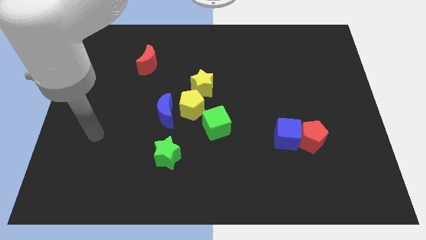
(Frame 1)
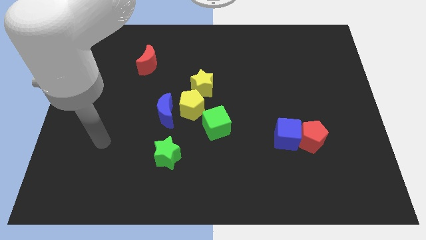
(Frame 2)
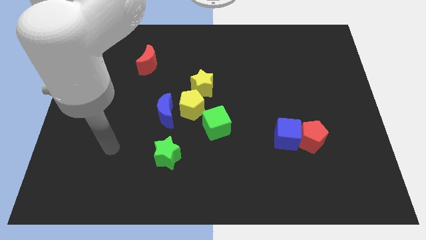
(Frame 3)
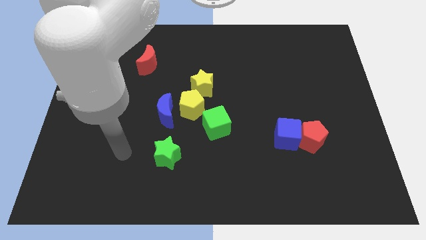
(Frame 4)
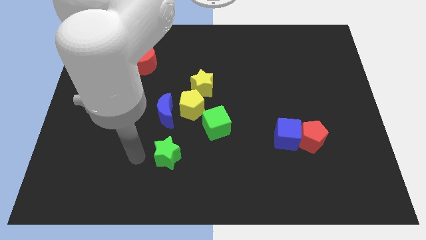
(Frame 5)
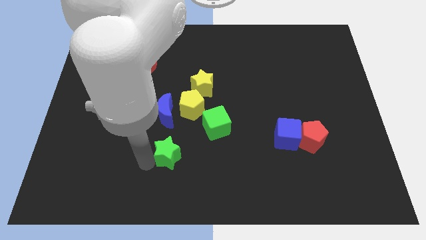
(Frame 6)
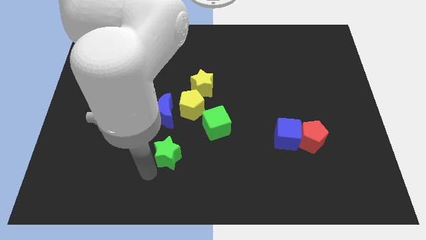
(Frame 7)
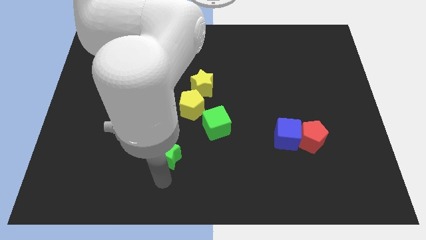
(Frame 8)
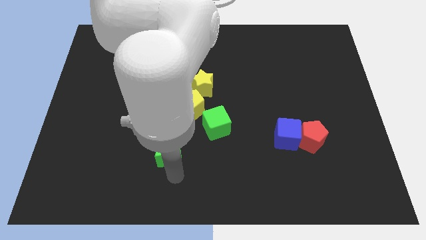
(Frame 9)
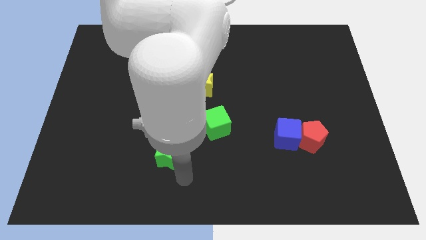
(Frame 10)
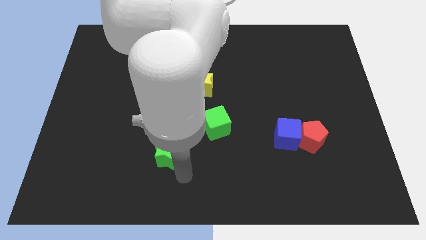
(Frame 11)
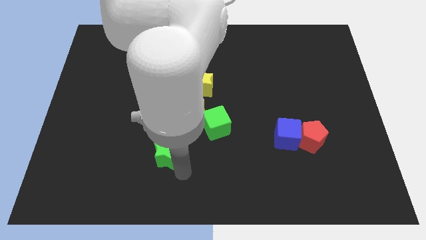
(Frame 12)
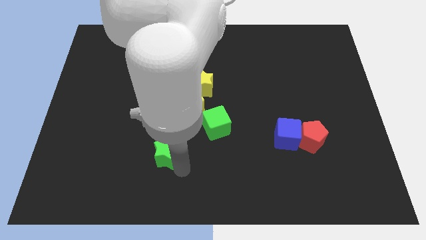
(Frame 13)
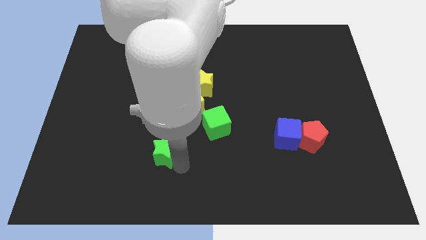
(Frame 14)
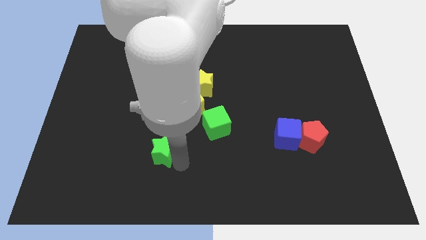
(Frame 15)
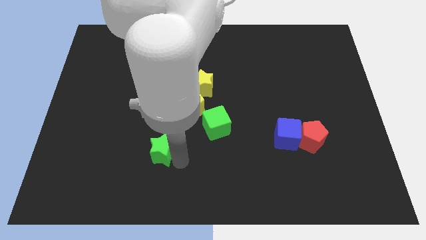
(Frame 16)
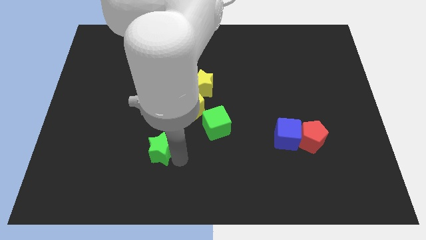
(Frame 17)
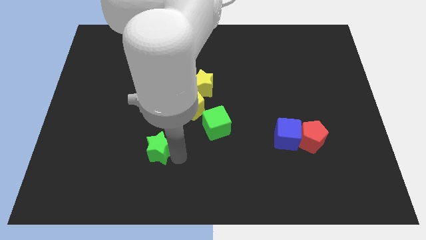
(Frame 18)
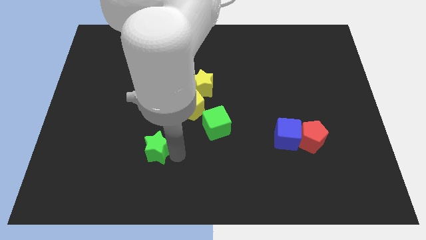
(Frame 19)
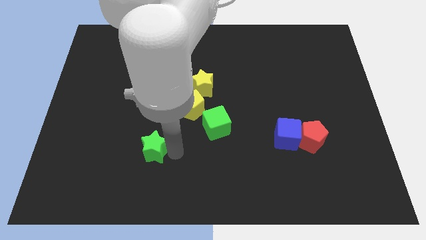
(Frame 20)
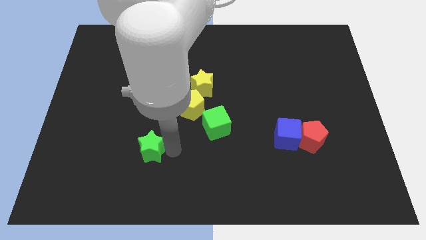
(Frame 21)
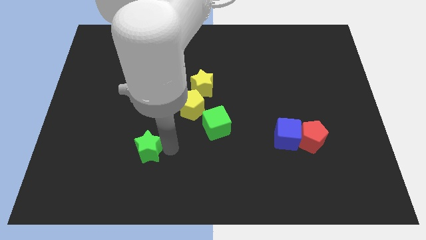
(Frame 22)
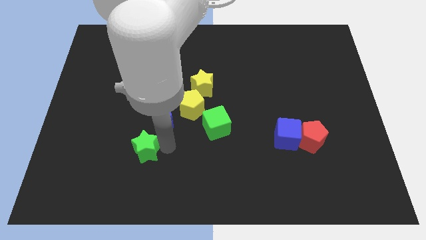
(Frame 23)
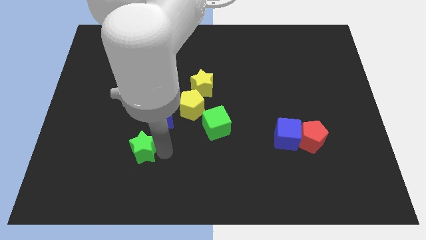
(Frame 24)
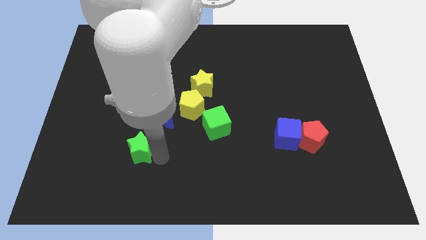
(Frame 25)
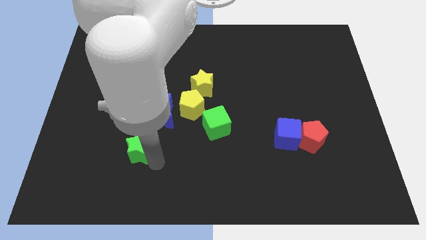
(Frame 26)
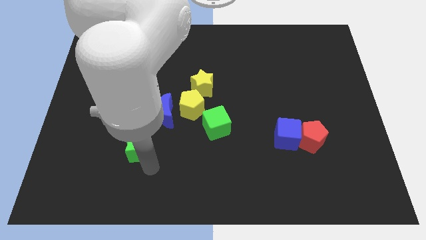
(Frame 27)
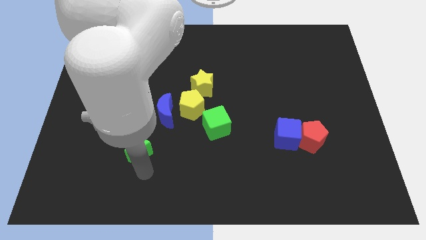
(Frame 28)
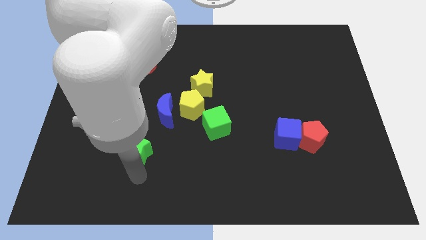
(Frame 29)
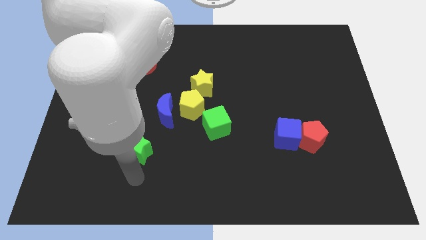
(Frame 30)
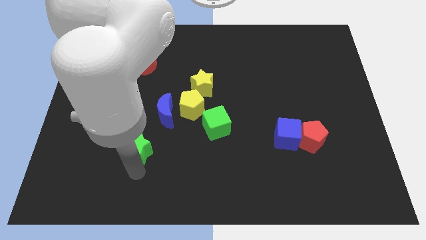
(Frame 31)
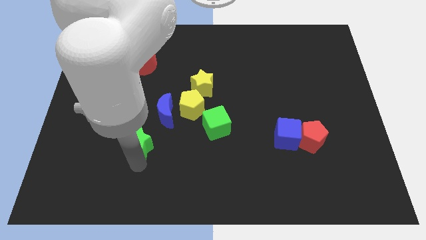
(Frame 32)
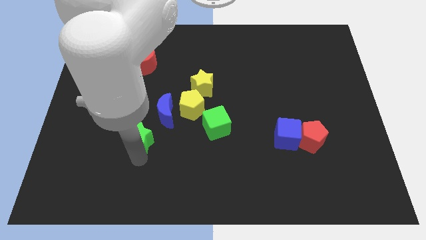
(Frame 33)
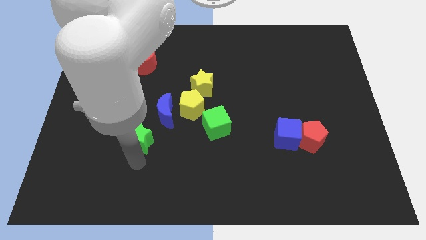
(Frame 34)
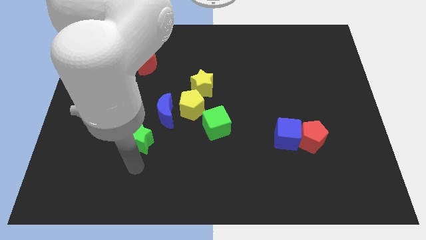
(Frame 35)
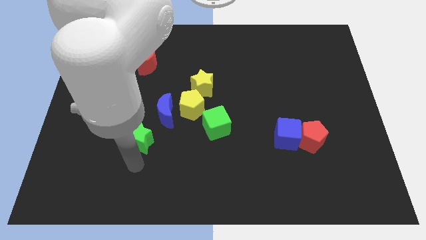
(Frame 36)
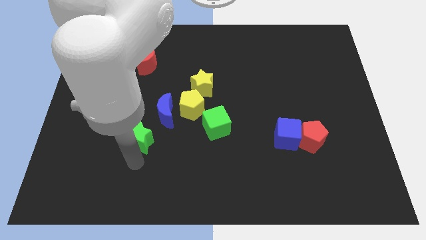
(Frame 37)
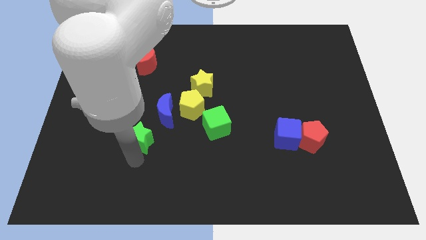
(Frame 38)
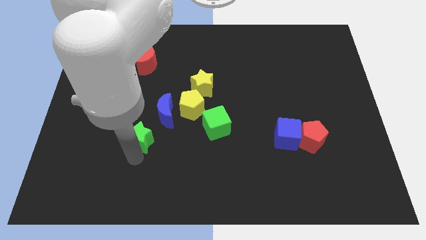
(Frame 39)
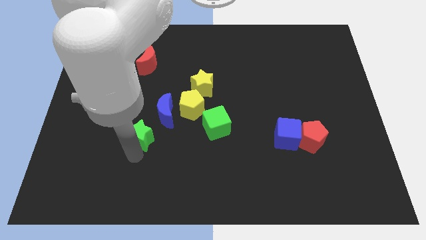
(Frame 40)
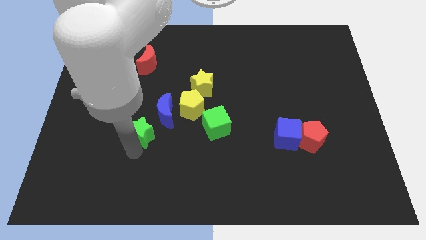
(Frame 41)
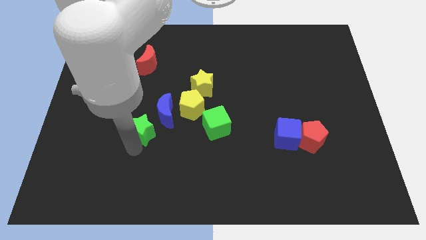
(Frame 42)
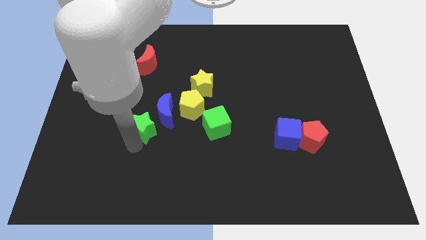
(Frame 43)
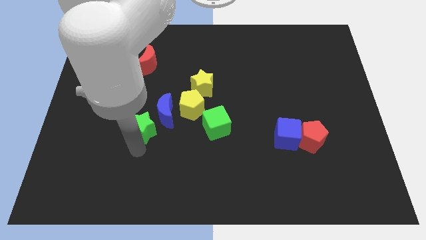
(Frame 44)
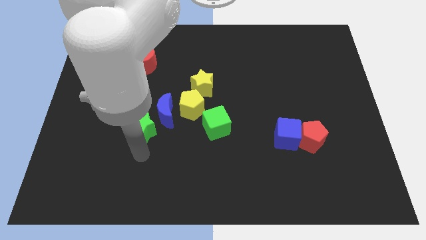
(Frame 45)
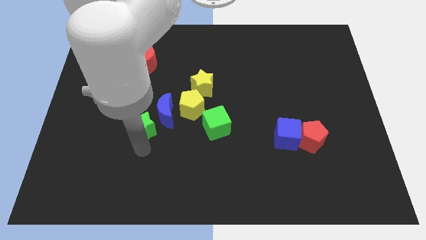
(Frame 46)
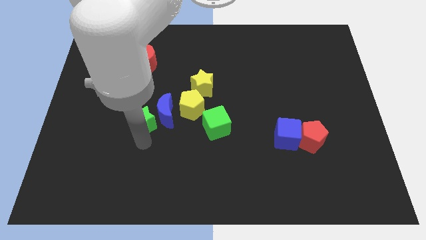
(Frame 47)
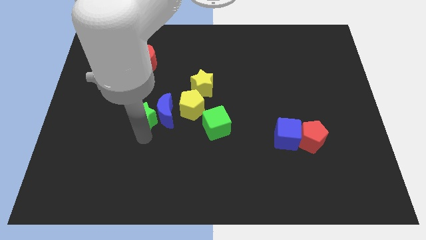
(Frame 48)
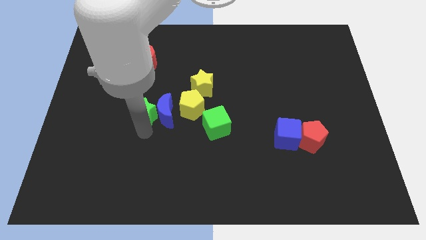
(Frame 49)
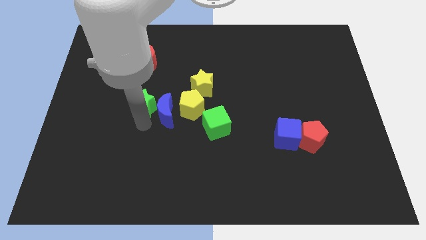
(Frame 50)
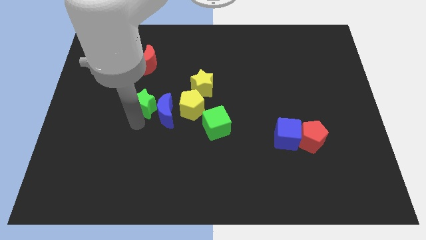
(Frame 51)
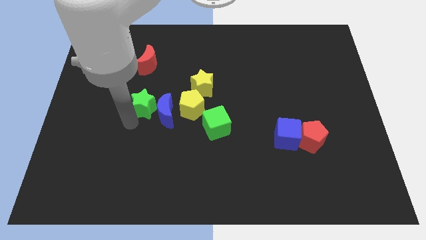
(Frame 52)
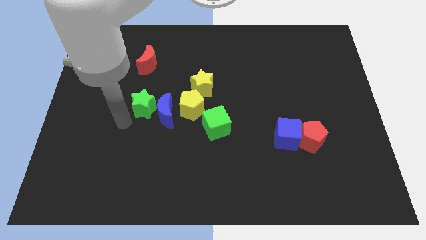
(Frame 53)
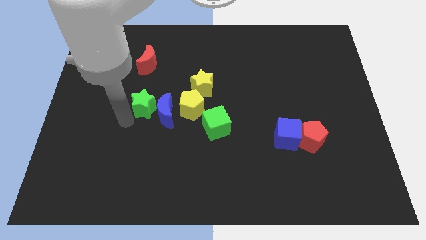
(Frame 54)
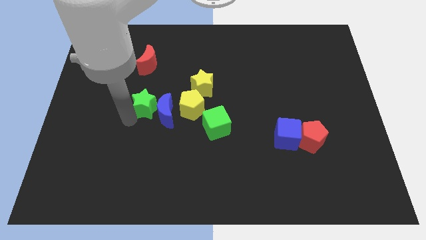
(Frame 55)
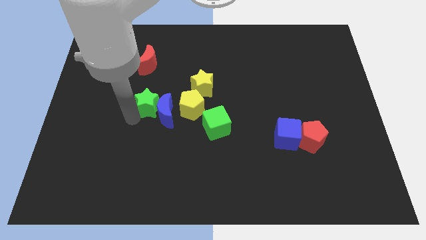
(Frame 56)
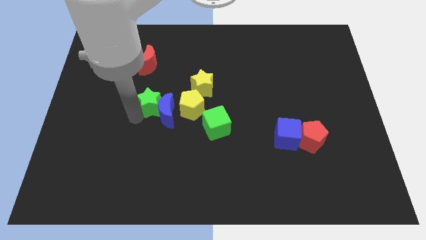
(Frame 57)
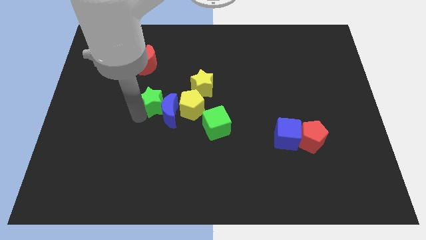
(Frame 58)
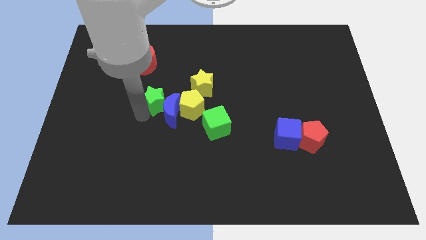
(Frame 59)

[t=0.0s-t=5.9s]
move the green star to the top left side of the yellow pentagon
